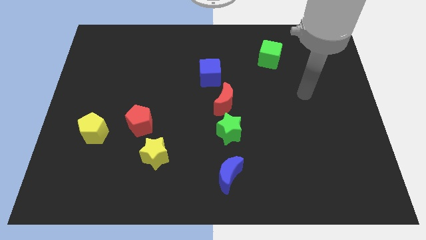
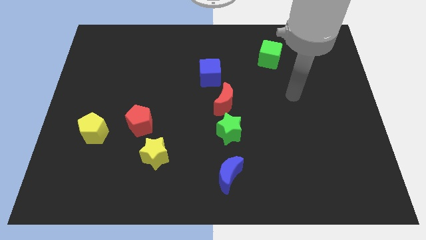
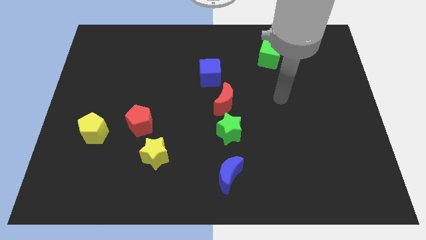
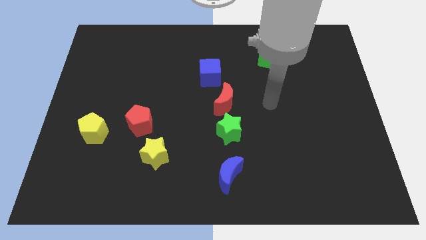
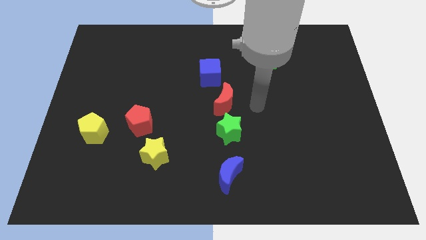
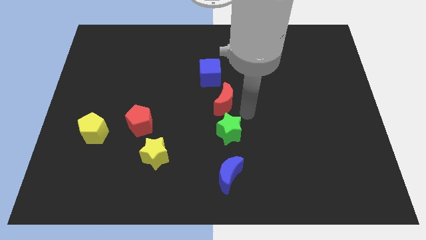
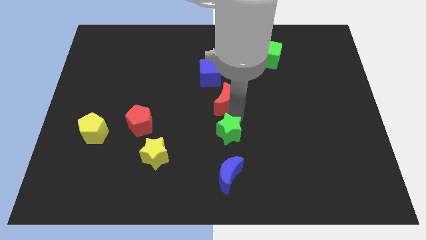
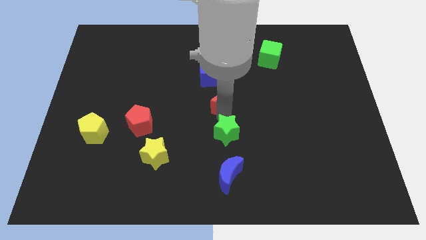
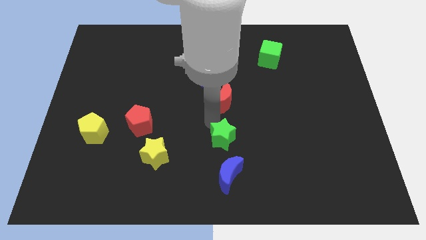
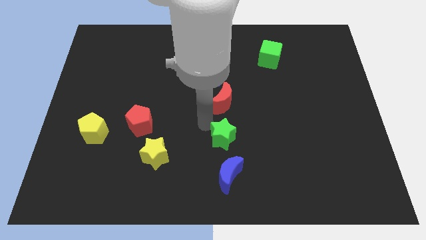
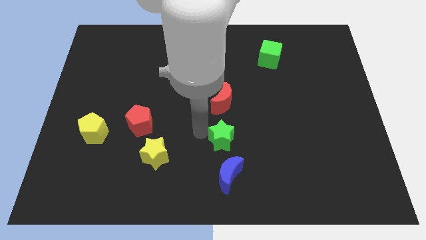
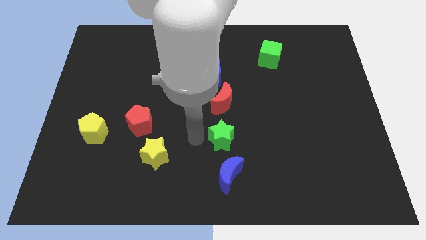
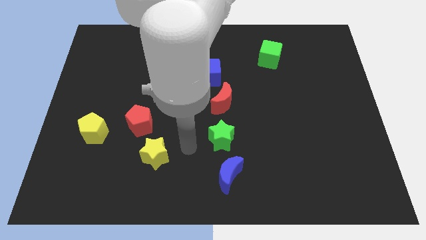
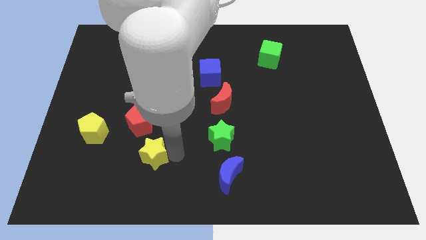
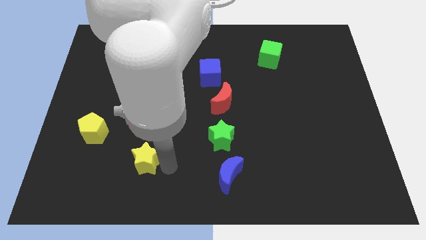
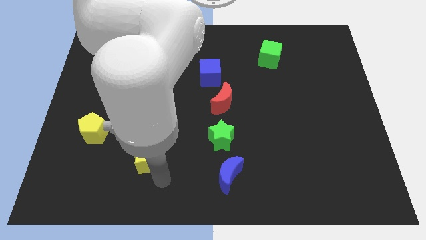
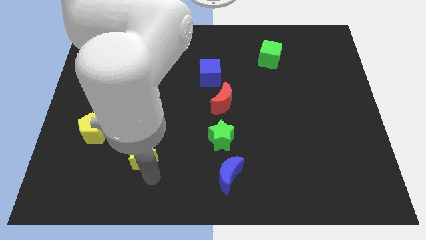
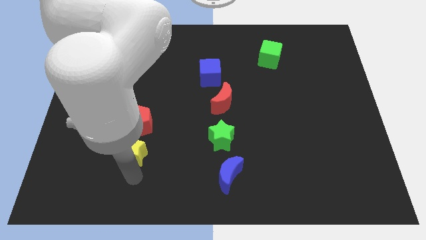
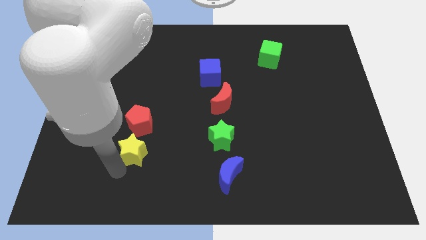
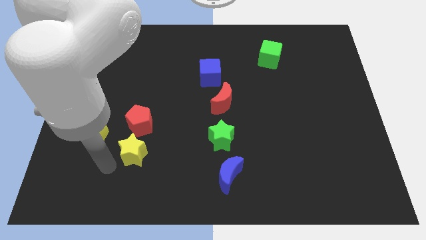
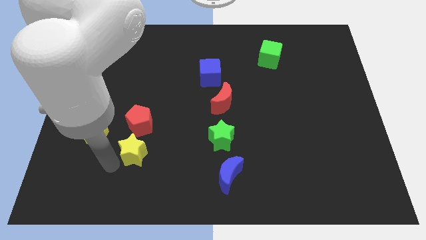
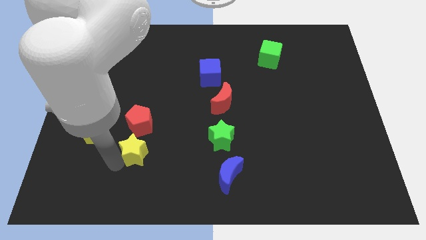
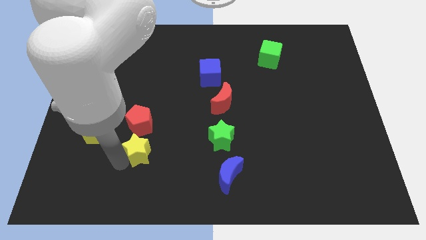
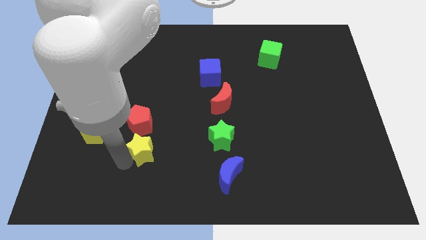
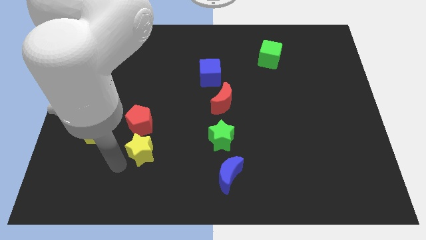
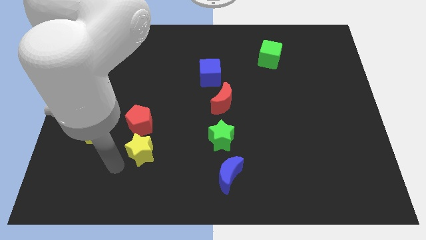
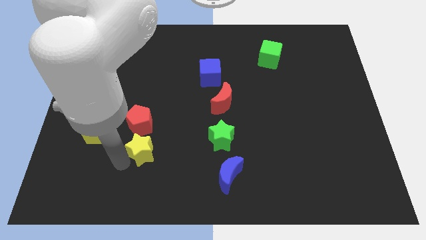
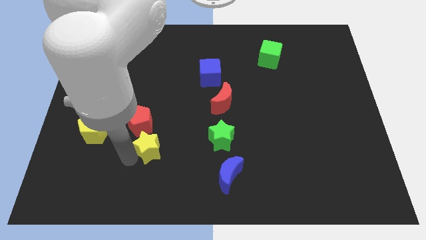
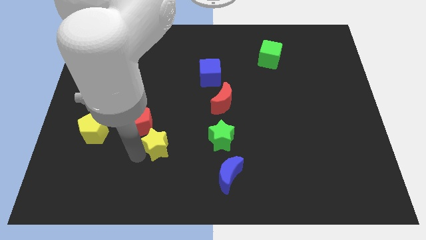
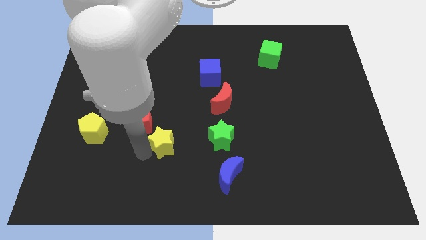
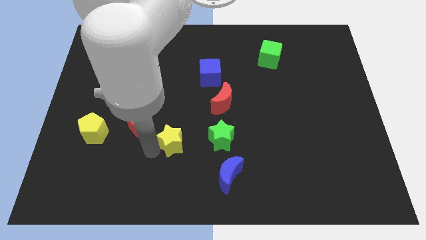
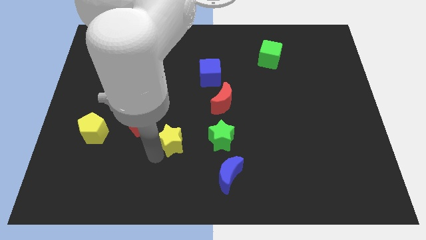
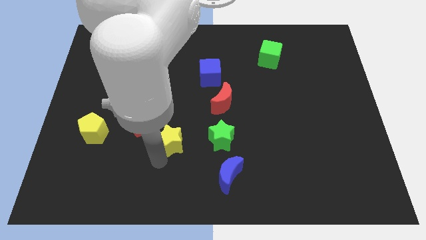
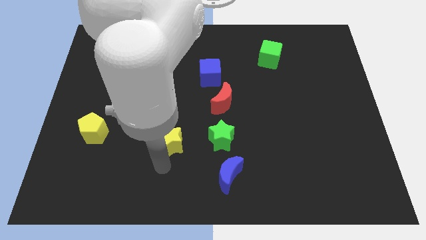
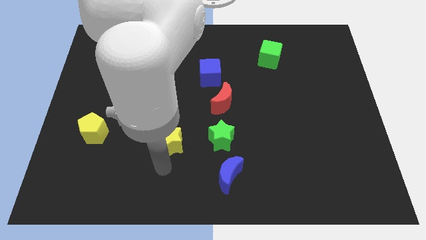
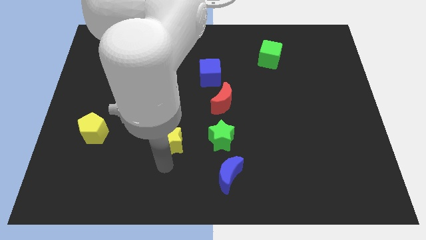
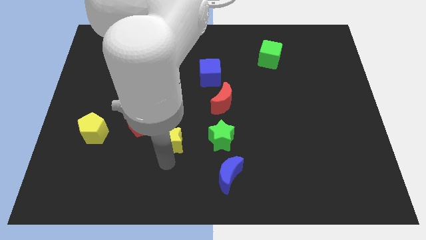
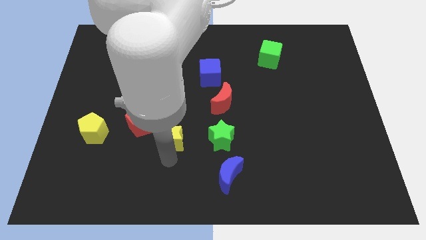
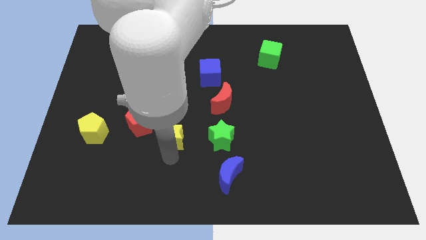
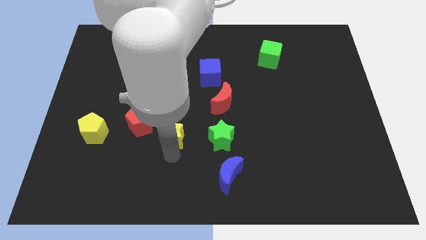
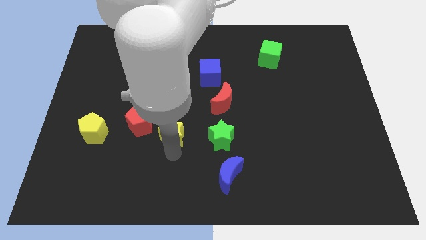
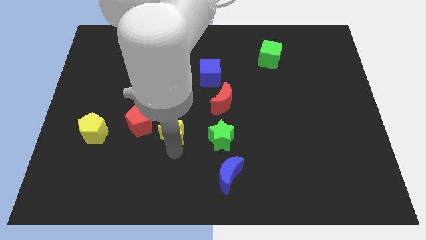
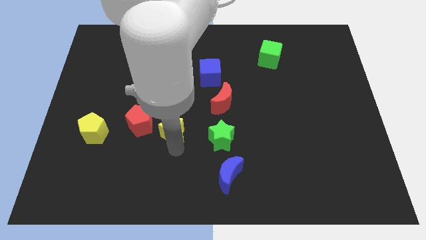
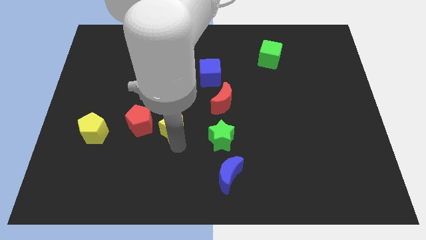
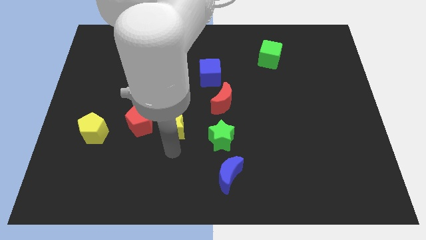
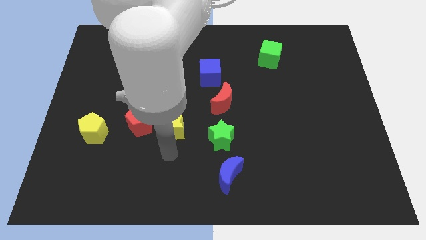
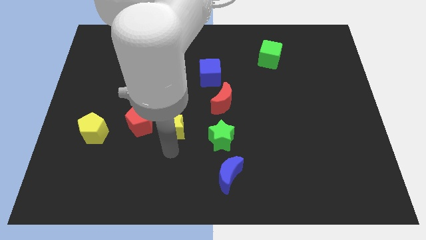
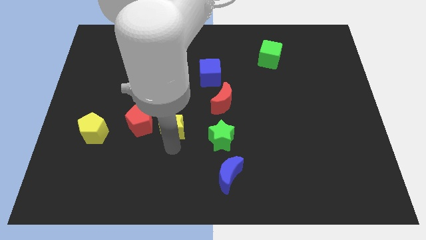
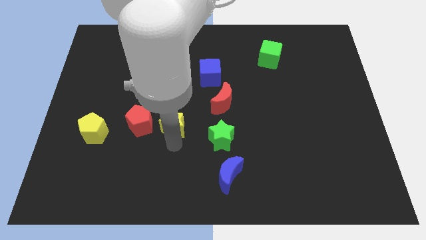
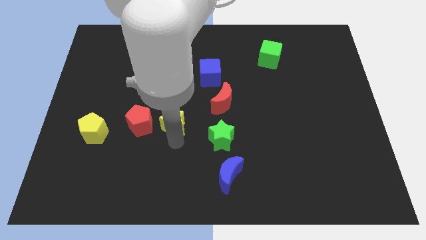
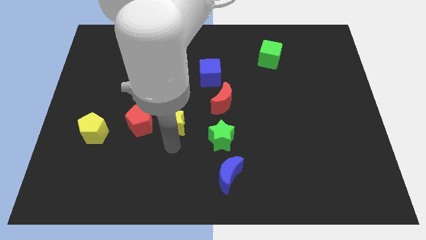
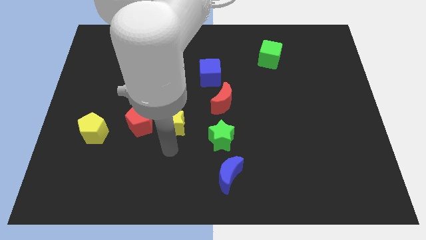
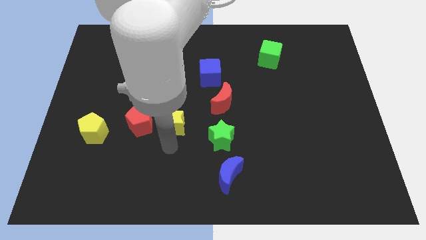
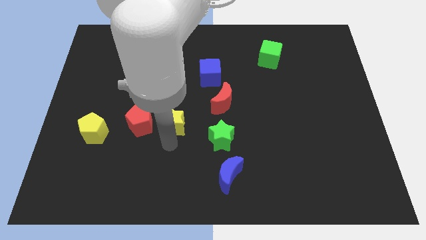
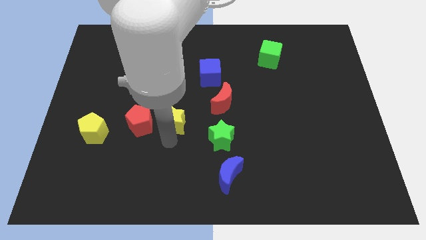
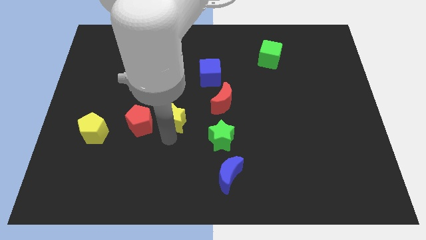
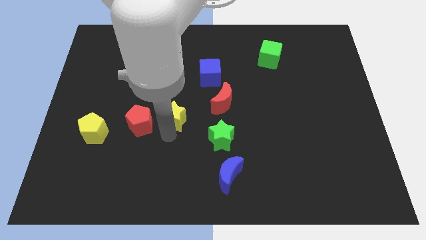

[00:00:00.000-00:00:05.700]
put the yellow star left of the red moon

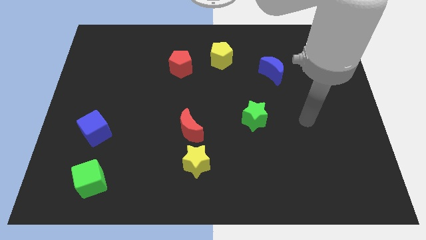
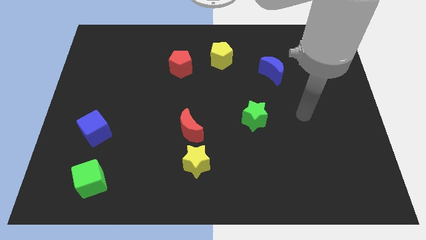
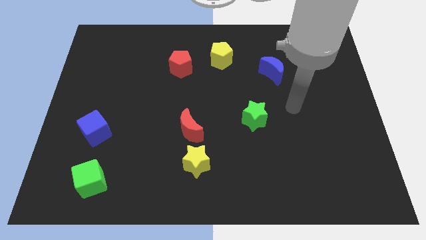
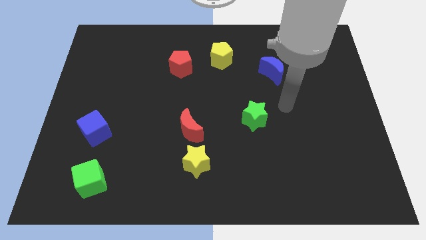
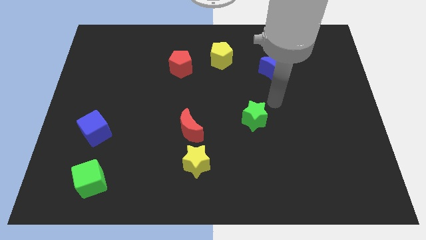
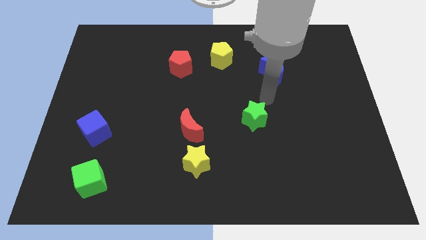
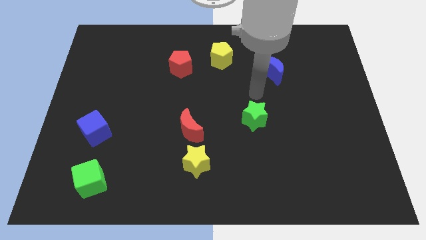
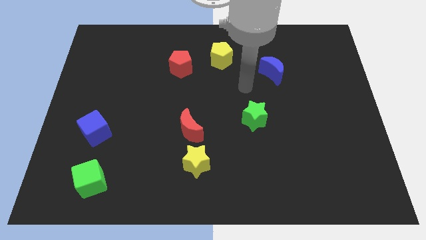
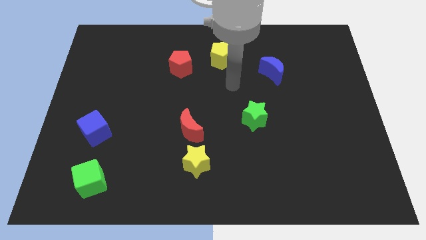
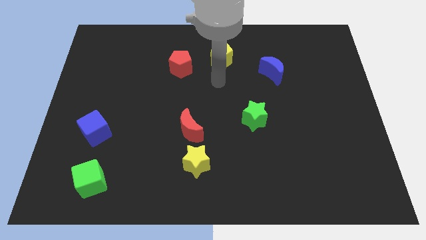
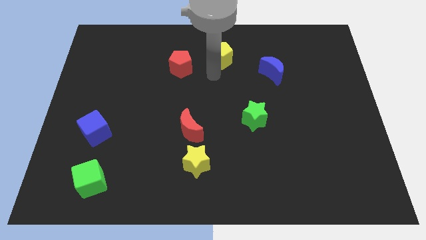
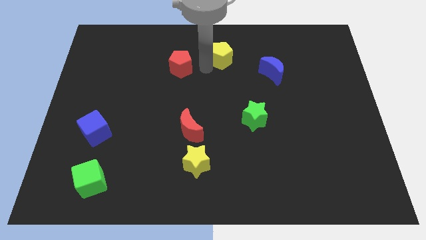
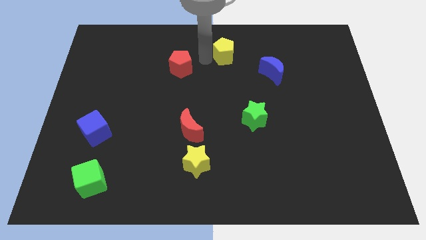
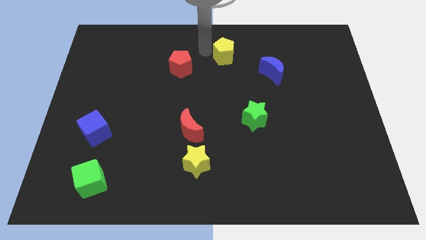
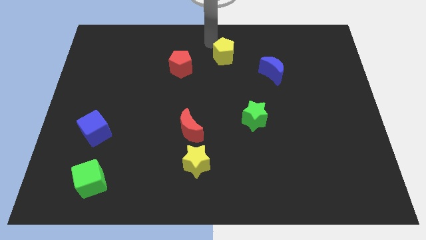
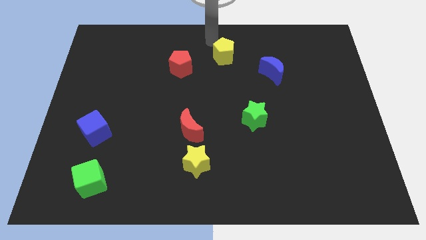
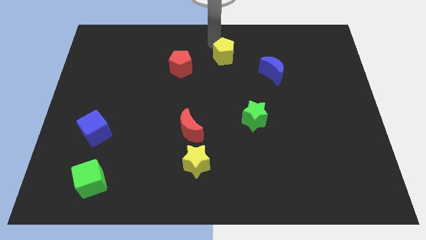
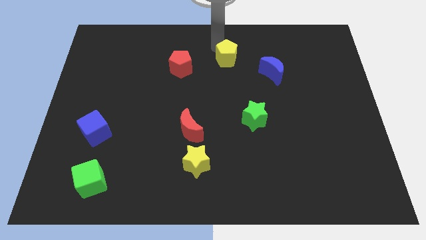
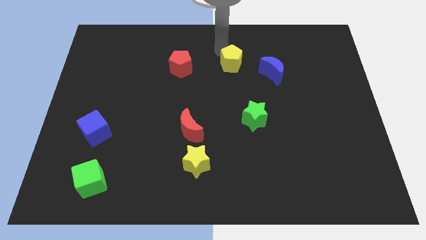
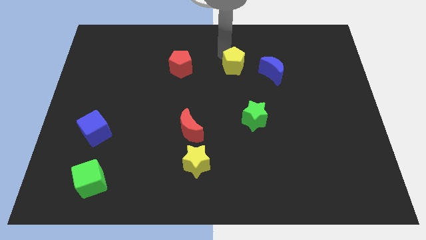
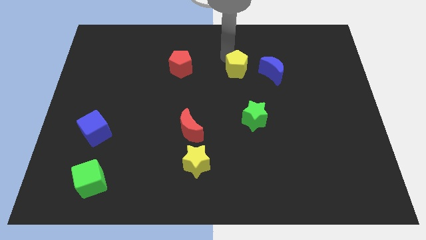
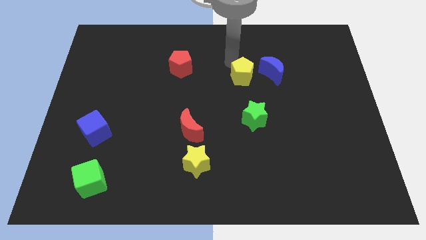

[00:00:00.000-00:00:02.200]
move the yellow pentagon diagonally down and to the left of the blue moon
